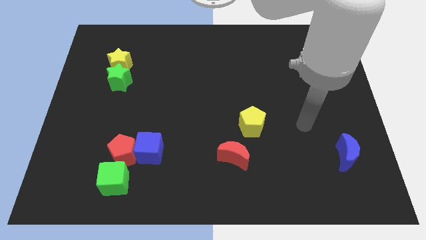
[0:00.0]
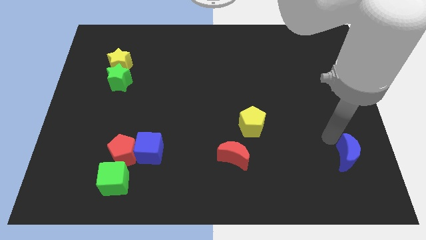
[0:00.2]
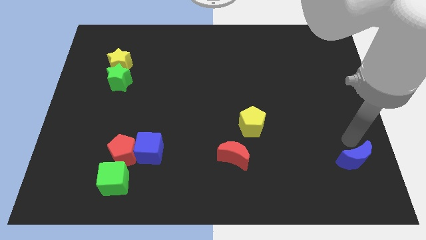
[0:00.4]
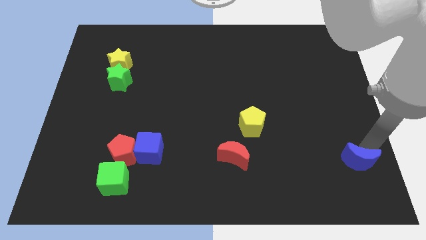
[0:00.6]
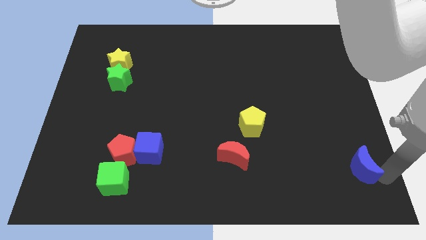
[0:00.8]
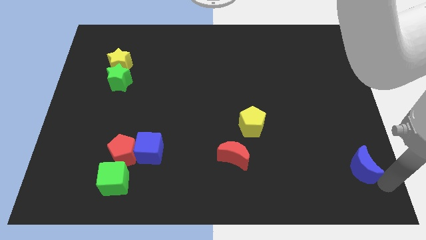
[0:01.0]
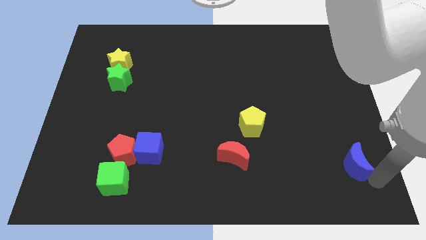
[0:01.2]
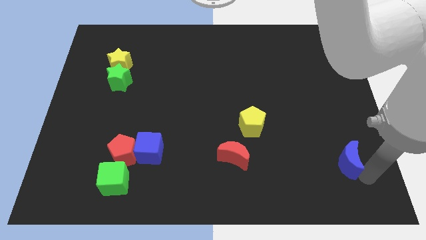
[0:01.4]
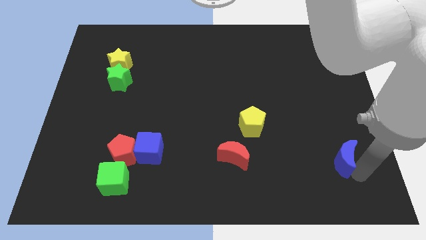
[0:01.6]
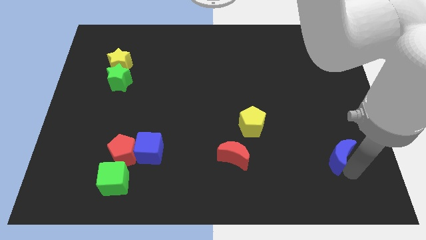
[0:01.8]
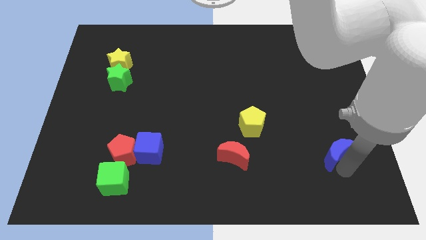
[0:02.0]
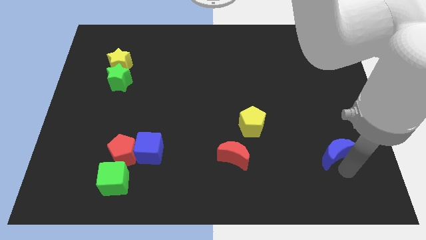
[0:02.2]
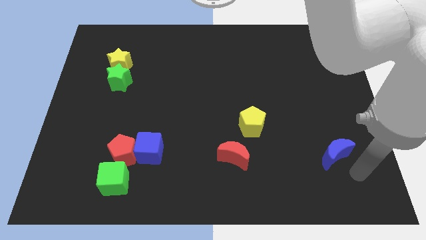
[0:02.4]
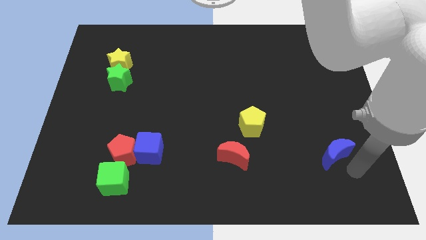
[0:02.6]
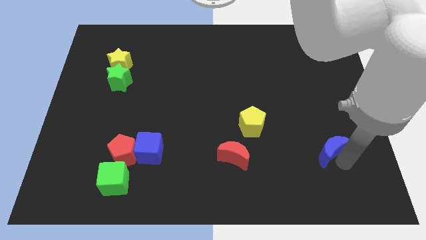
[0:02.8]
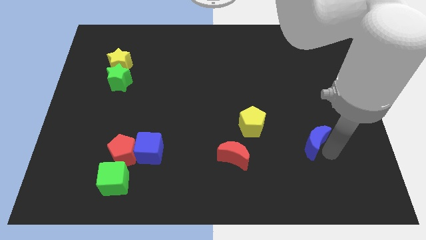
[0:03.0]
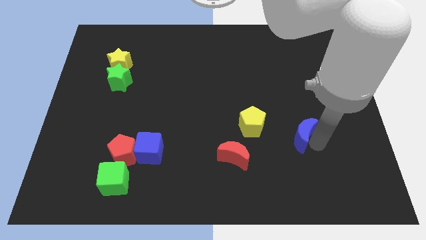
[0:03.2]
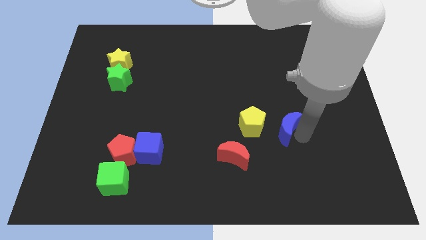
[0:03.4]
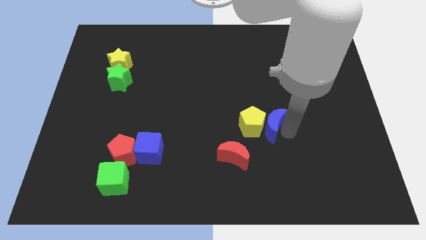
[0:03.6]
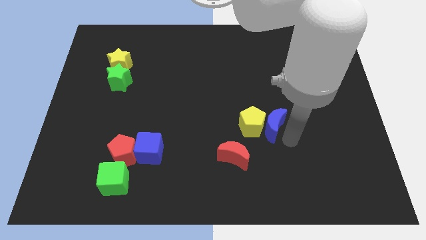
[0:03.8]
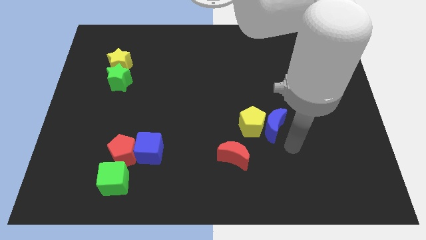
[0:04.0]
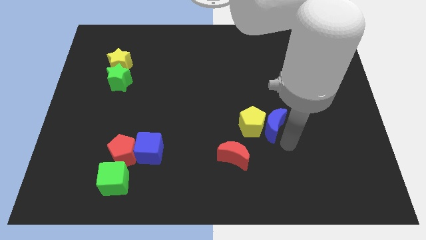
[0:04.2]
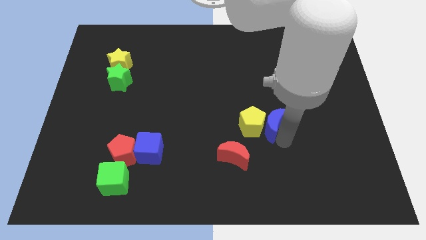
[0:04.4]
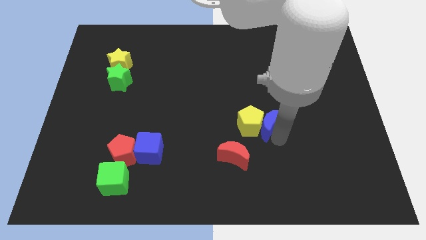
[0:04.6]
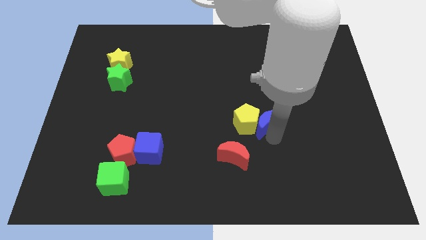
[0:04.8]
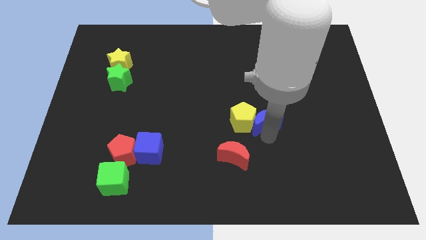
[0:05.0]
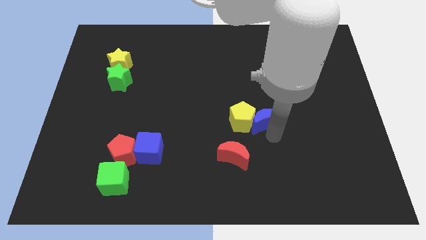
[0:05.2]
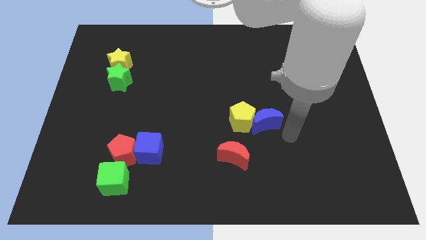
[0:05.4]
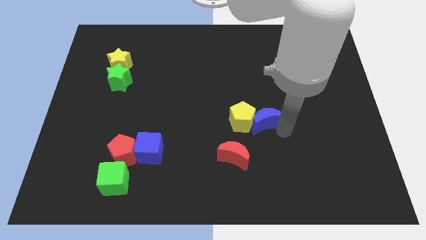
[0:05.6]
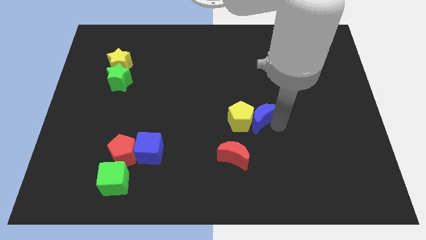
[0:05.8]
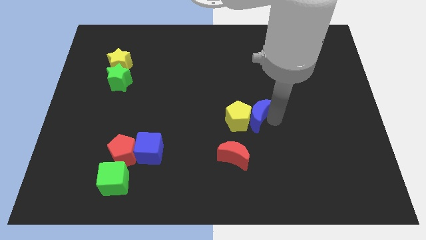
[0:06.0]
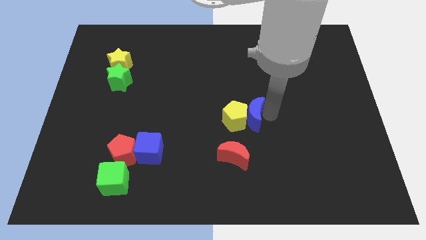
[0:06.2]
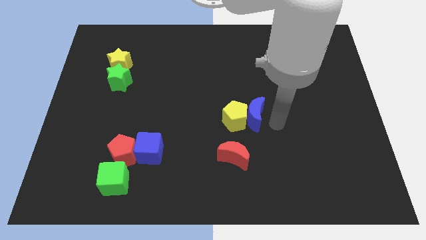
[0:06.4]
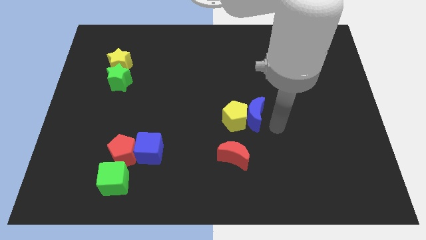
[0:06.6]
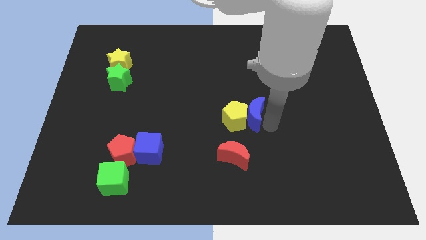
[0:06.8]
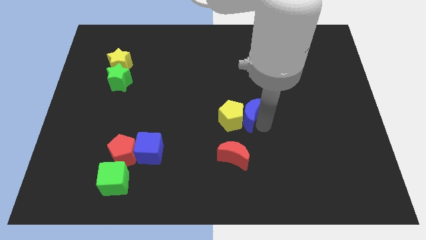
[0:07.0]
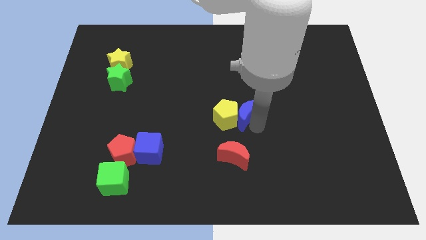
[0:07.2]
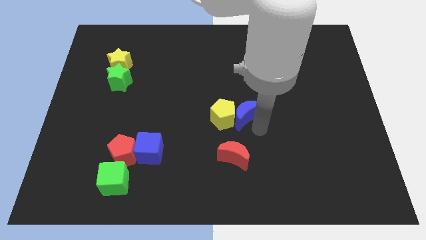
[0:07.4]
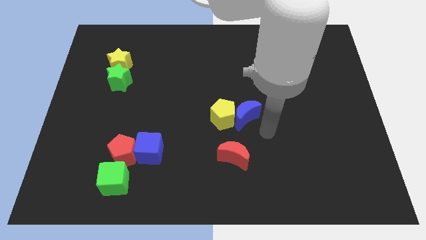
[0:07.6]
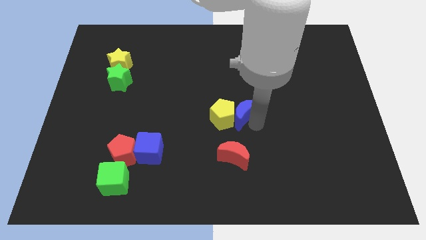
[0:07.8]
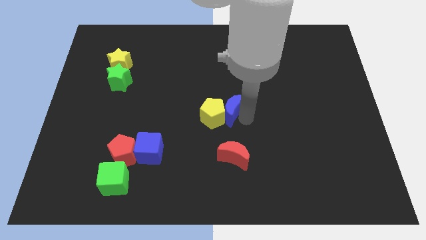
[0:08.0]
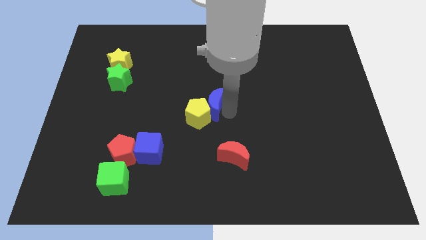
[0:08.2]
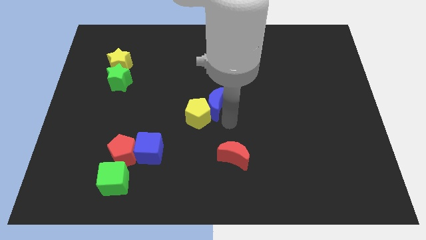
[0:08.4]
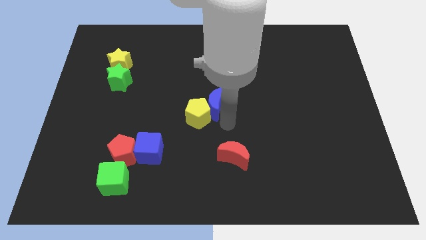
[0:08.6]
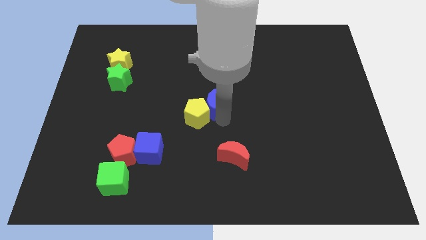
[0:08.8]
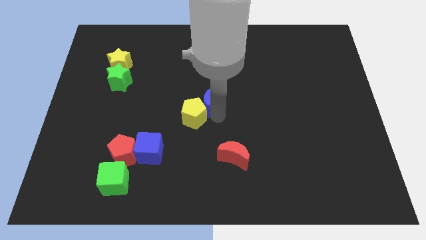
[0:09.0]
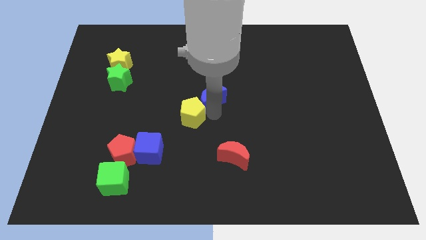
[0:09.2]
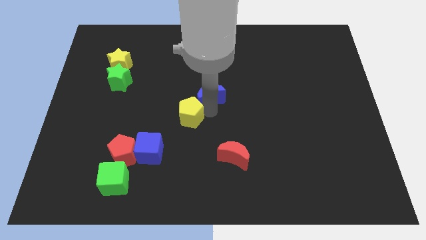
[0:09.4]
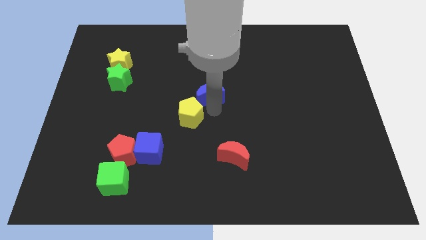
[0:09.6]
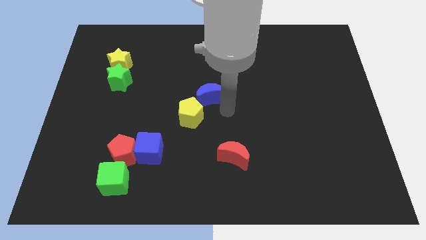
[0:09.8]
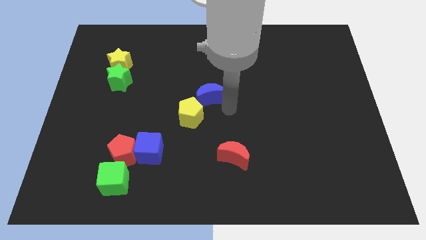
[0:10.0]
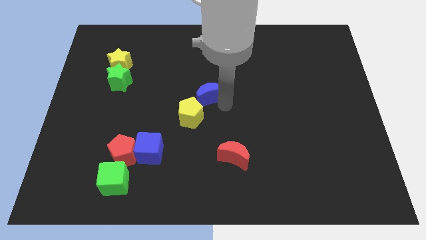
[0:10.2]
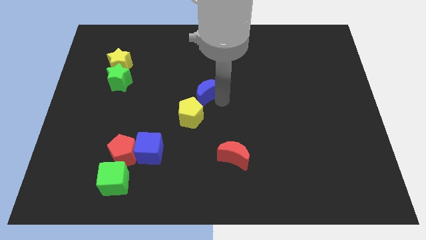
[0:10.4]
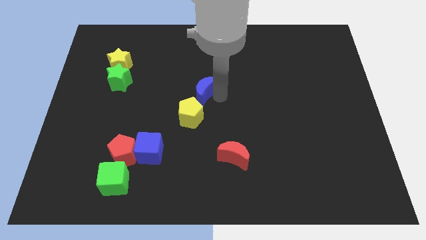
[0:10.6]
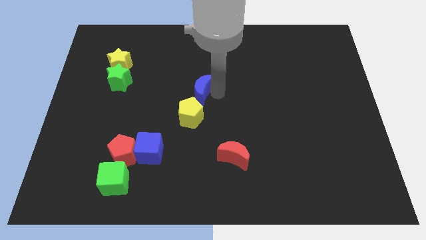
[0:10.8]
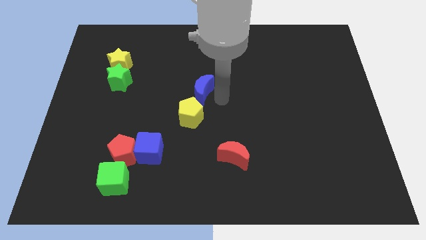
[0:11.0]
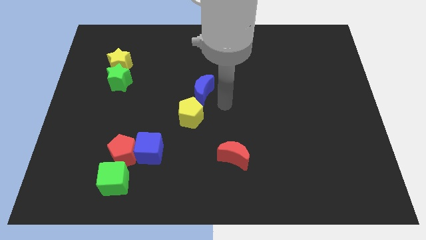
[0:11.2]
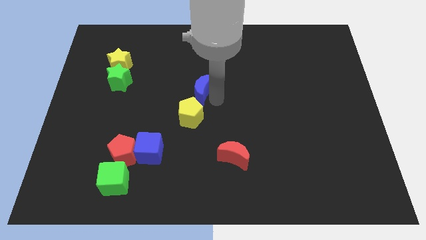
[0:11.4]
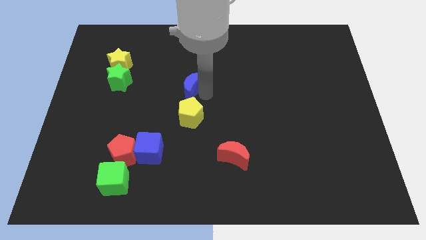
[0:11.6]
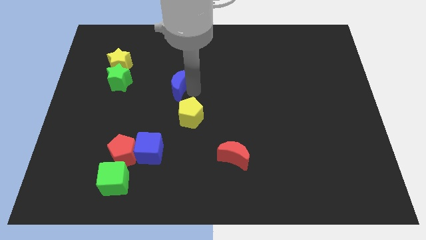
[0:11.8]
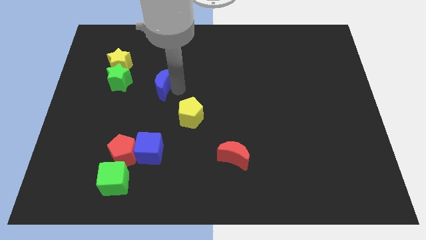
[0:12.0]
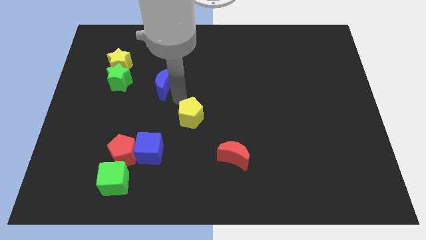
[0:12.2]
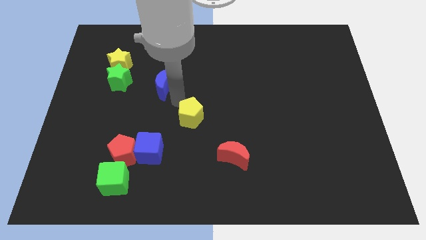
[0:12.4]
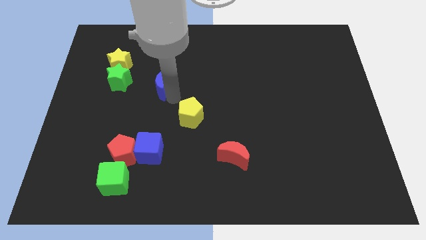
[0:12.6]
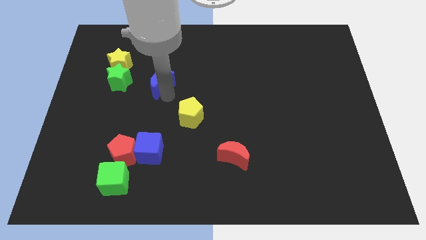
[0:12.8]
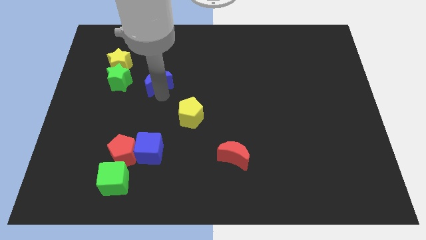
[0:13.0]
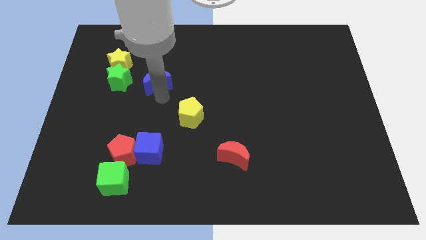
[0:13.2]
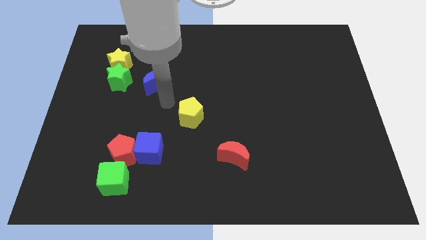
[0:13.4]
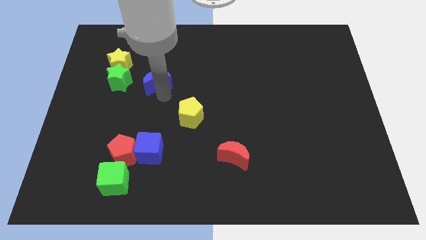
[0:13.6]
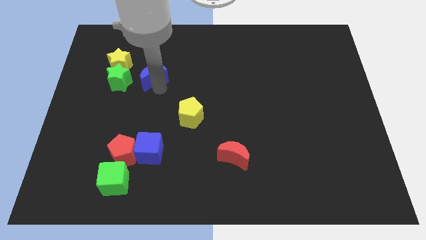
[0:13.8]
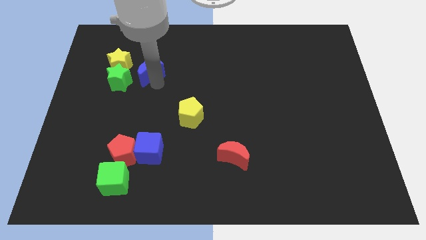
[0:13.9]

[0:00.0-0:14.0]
move the blue moon to the top right of the green star

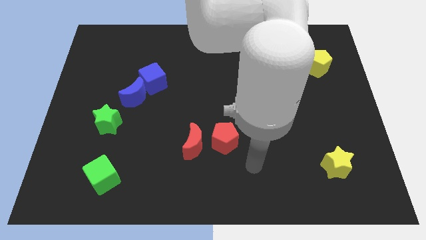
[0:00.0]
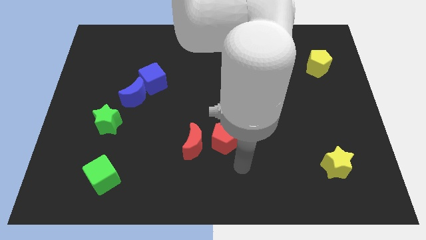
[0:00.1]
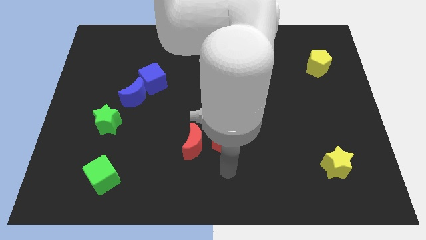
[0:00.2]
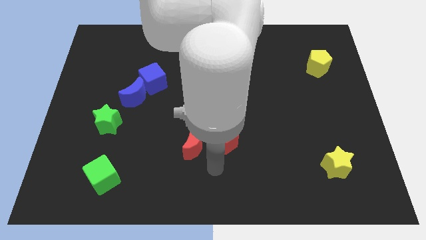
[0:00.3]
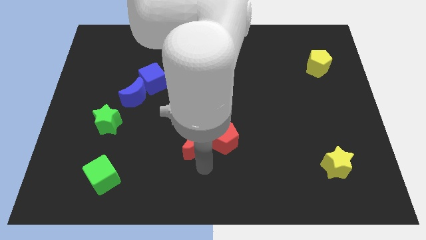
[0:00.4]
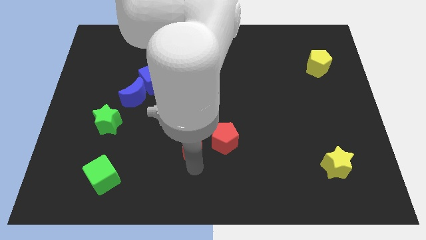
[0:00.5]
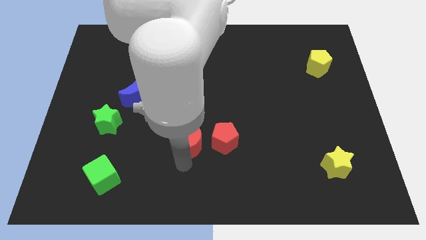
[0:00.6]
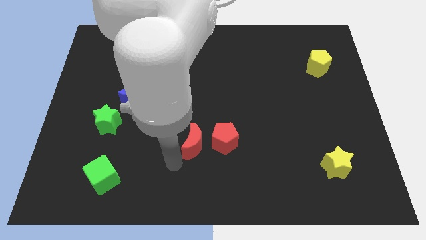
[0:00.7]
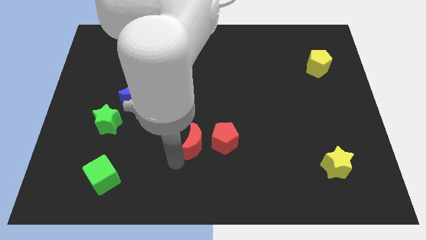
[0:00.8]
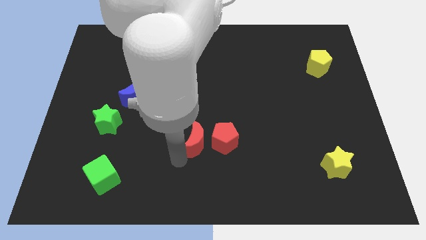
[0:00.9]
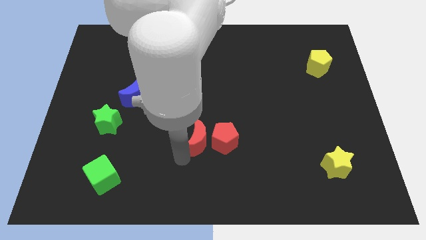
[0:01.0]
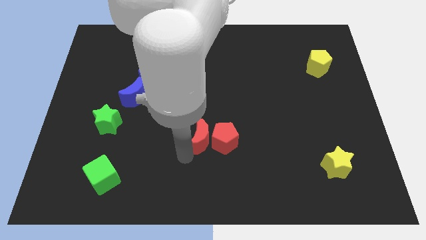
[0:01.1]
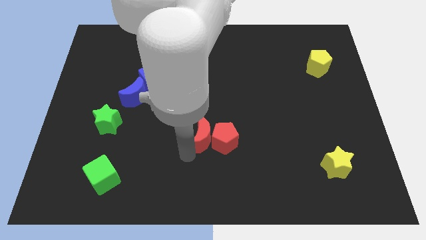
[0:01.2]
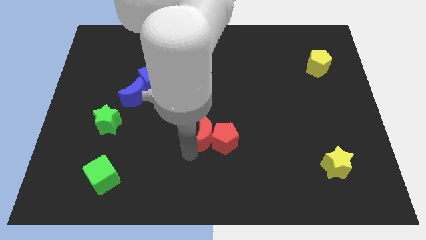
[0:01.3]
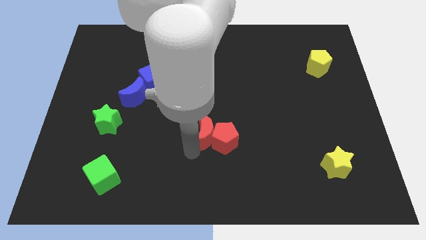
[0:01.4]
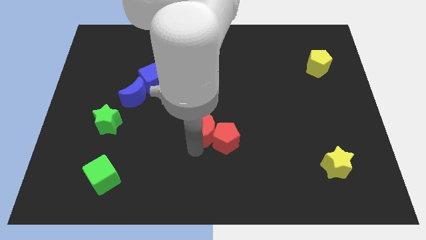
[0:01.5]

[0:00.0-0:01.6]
put the red moon to the top side of the red pentagon
